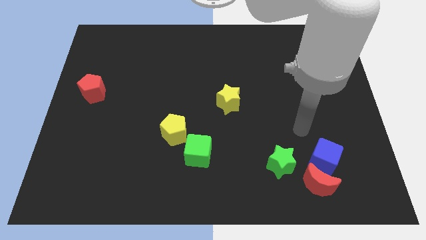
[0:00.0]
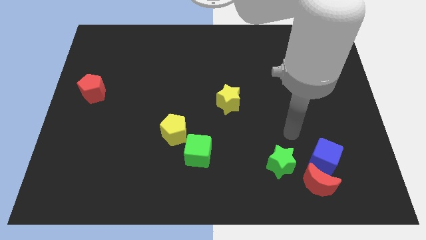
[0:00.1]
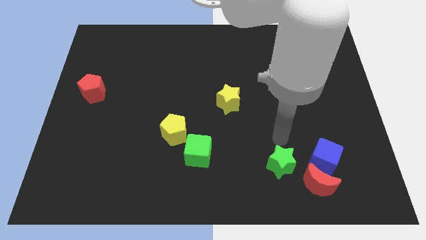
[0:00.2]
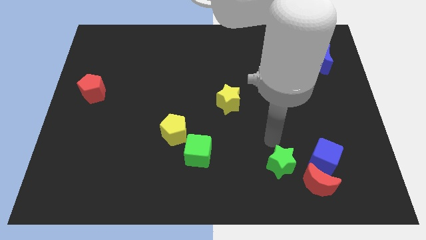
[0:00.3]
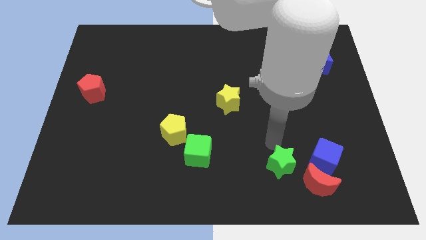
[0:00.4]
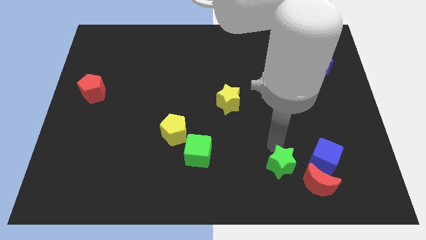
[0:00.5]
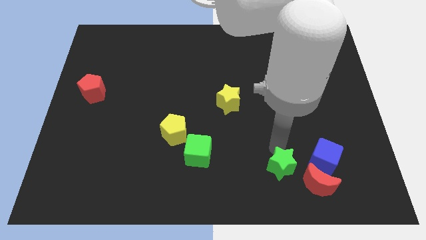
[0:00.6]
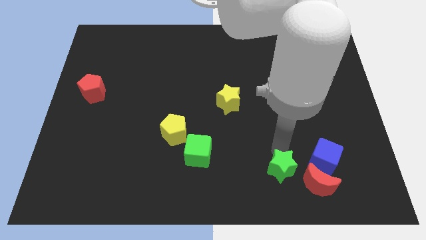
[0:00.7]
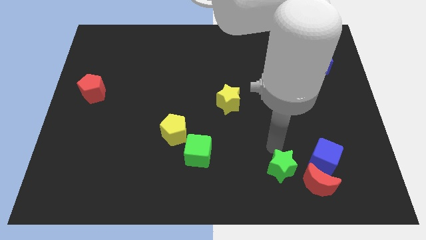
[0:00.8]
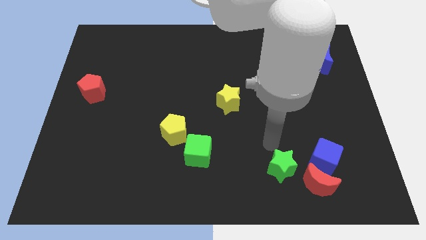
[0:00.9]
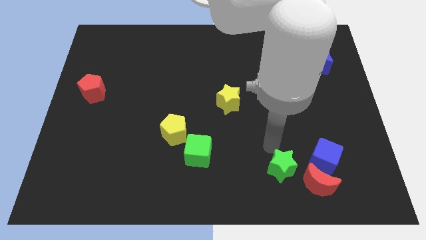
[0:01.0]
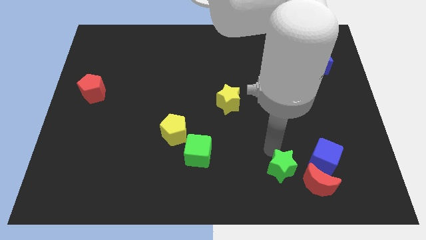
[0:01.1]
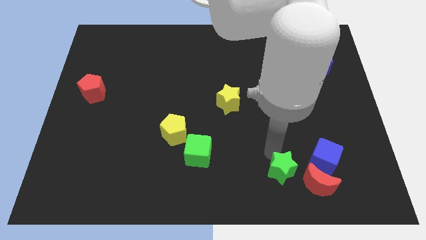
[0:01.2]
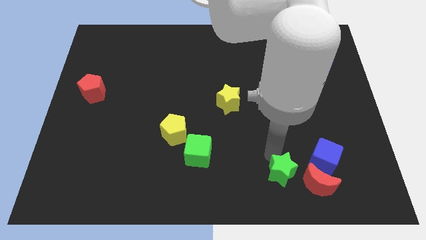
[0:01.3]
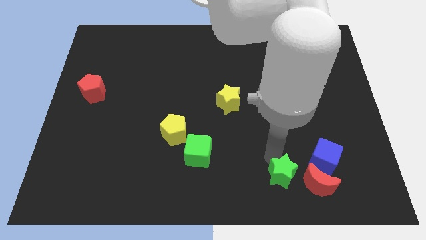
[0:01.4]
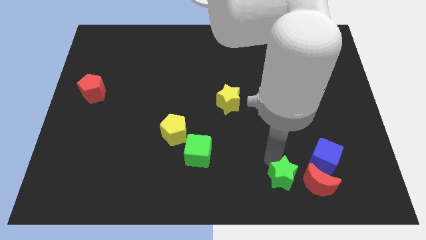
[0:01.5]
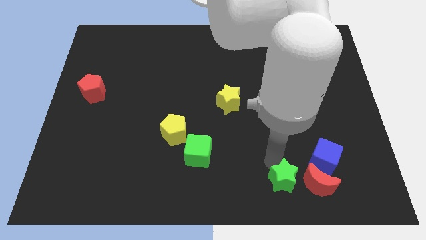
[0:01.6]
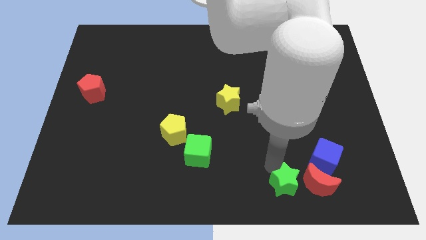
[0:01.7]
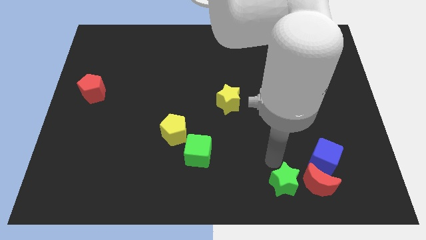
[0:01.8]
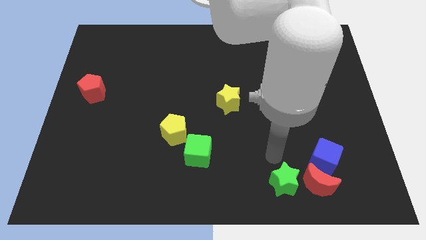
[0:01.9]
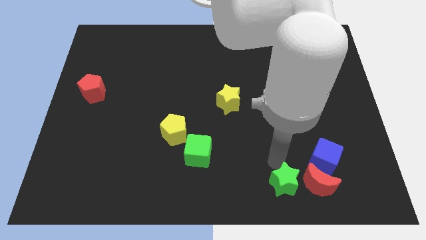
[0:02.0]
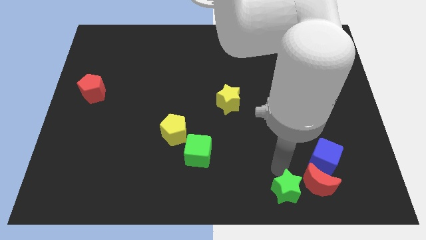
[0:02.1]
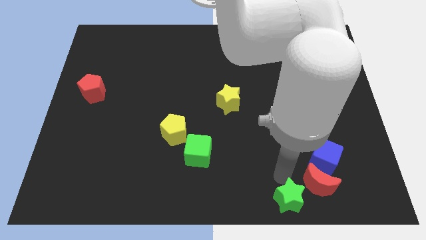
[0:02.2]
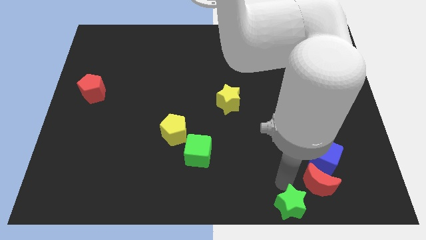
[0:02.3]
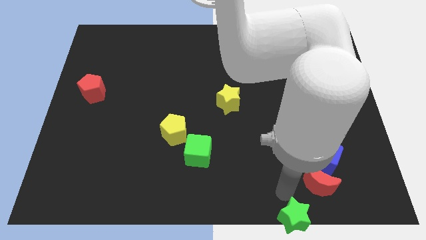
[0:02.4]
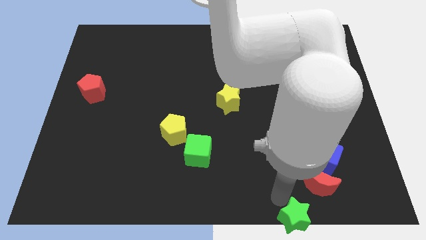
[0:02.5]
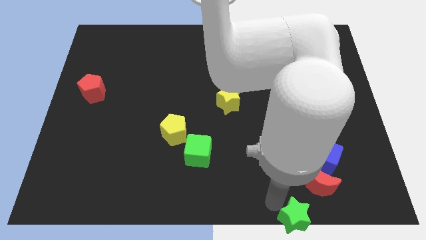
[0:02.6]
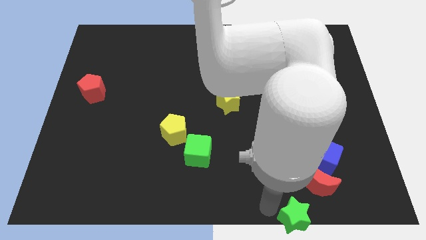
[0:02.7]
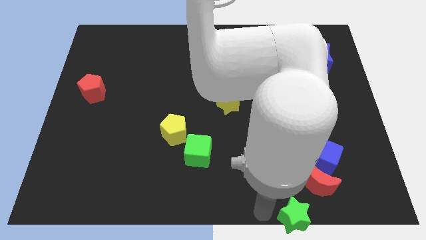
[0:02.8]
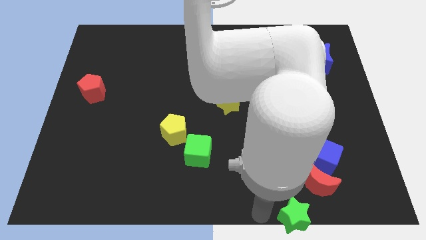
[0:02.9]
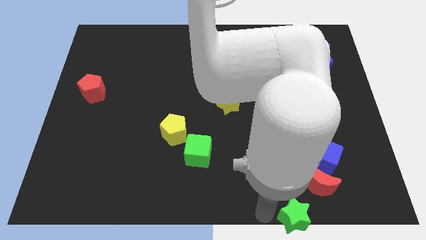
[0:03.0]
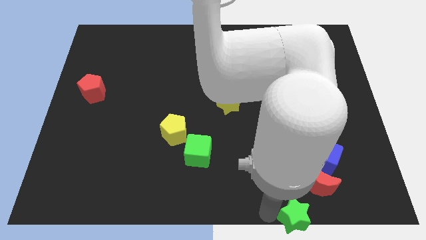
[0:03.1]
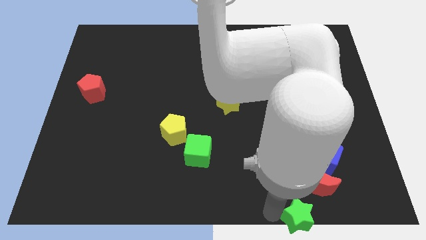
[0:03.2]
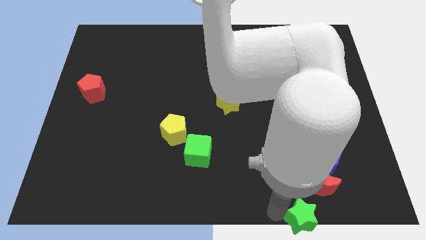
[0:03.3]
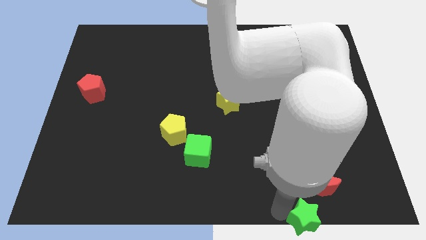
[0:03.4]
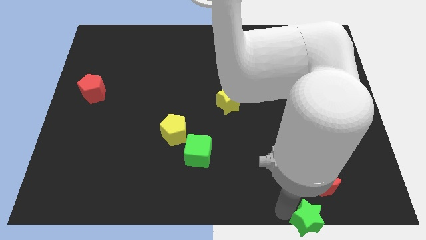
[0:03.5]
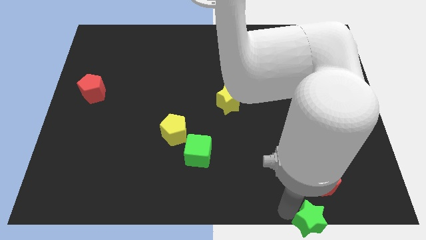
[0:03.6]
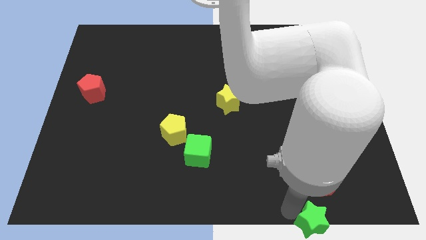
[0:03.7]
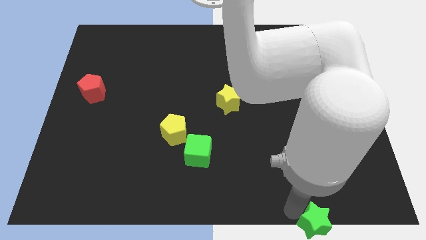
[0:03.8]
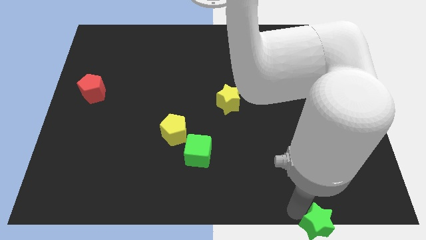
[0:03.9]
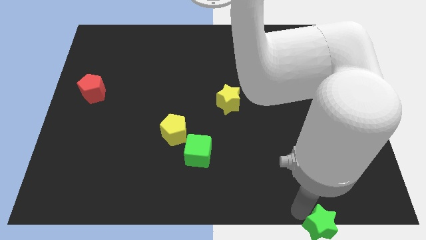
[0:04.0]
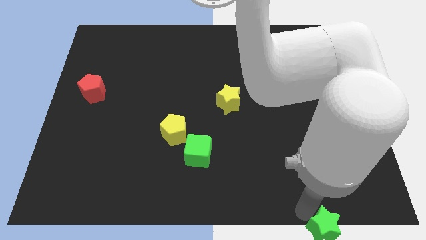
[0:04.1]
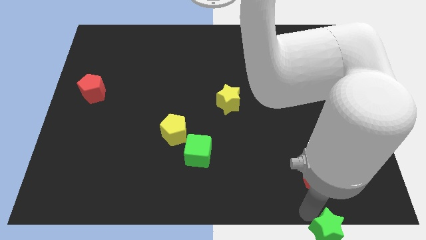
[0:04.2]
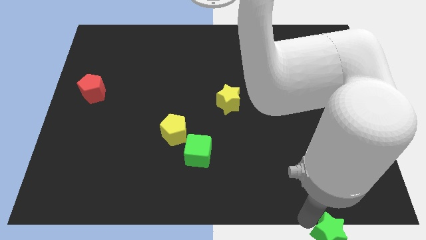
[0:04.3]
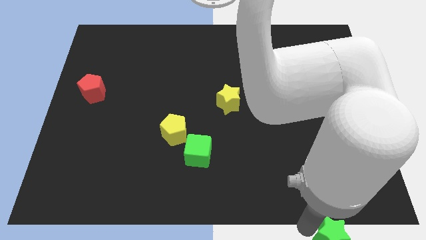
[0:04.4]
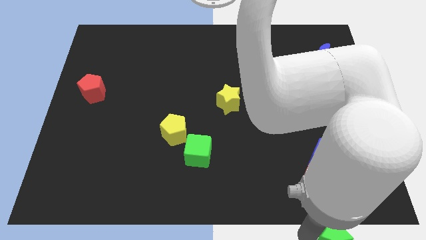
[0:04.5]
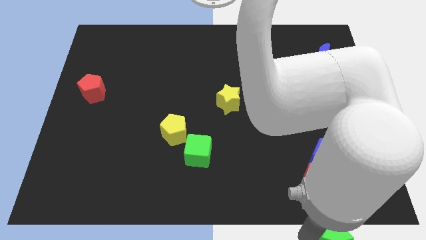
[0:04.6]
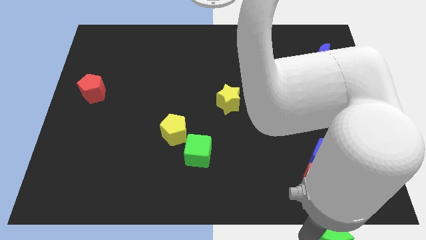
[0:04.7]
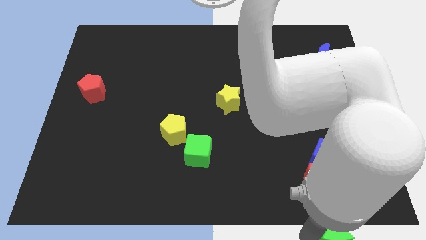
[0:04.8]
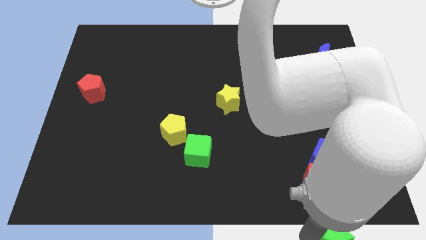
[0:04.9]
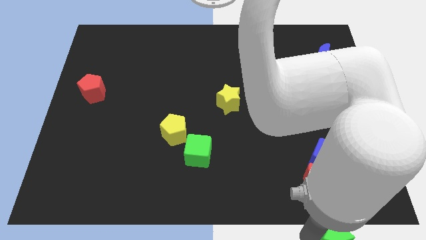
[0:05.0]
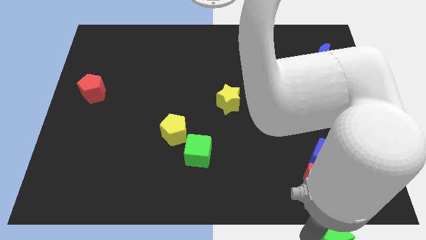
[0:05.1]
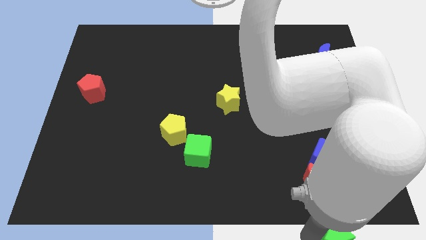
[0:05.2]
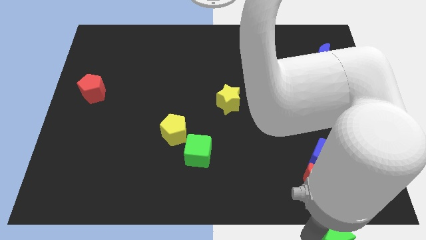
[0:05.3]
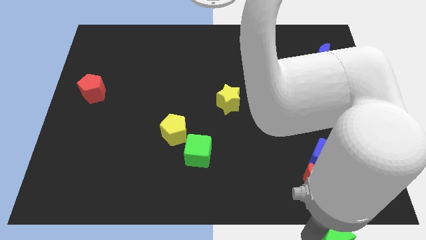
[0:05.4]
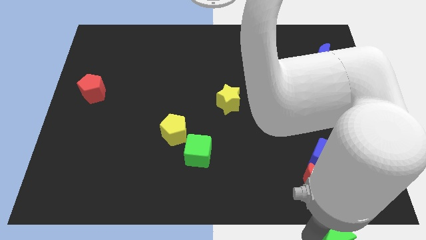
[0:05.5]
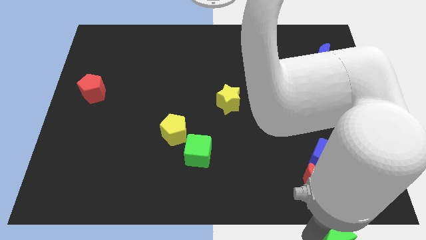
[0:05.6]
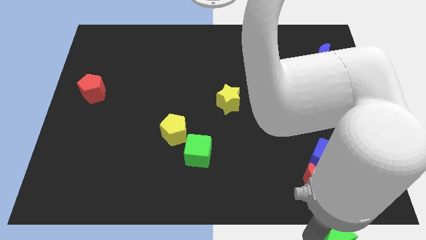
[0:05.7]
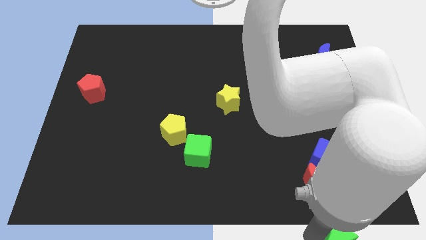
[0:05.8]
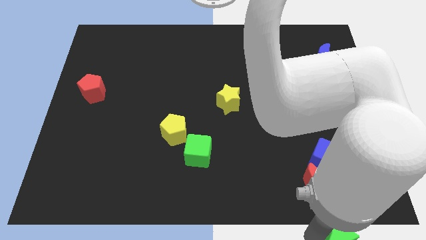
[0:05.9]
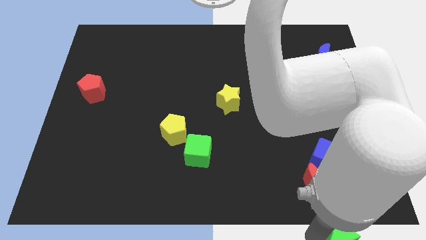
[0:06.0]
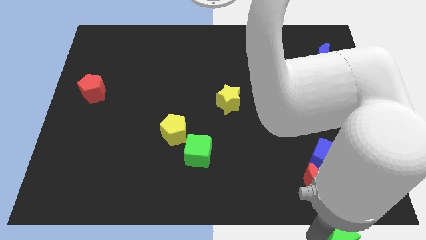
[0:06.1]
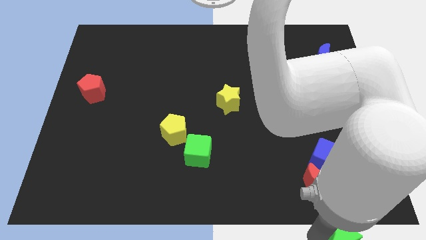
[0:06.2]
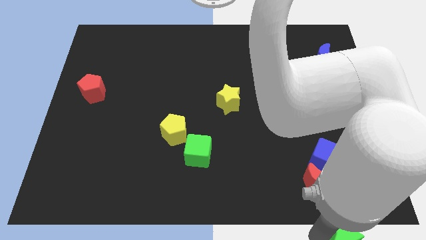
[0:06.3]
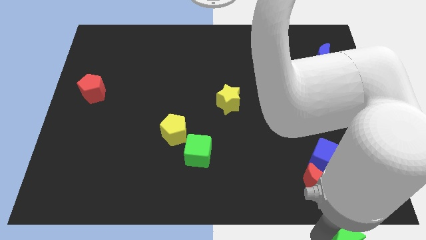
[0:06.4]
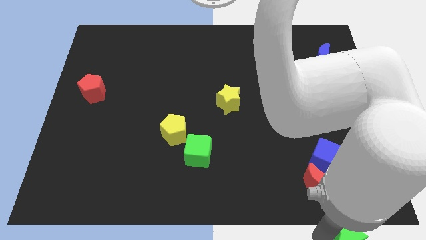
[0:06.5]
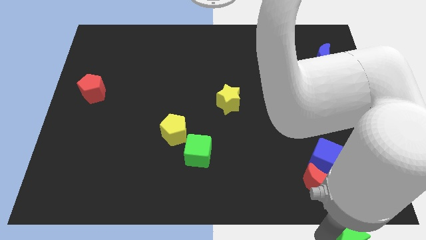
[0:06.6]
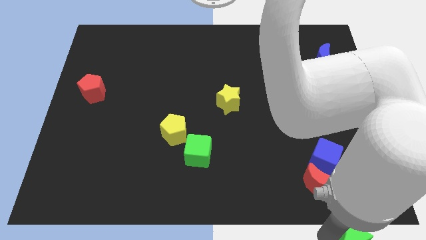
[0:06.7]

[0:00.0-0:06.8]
put the green star to the lower right corner

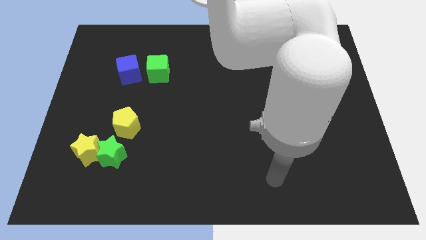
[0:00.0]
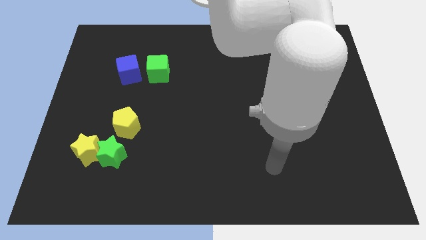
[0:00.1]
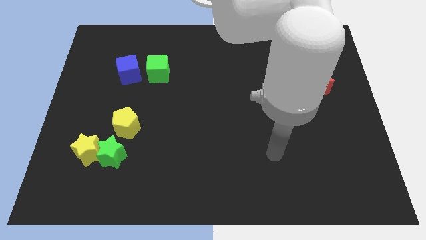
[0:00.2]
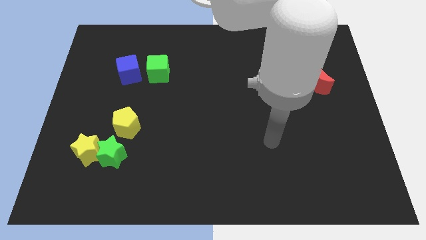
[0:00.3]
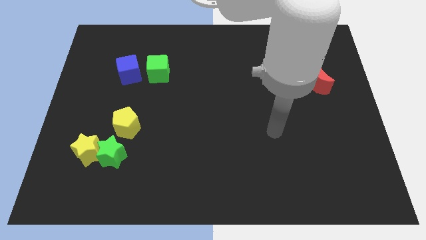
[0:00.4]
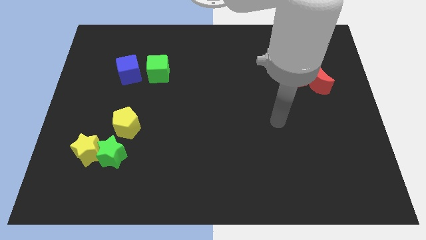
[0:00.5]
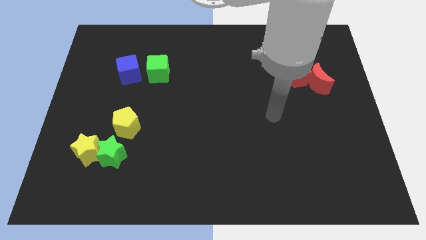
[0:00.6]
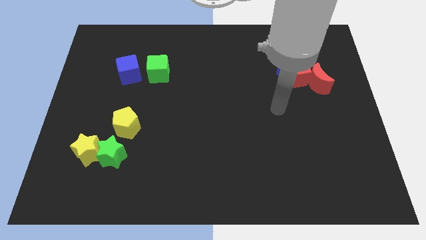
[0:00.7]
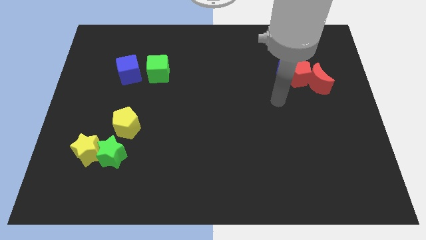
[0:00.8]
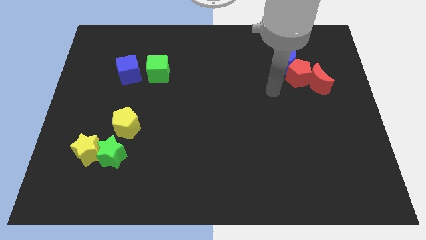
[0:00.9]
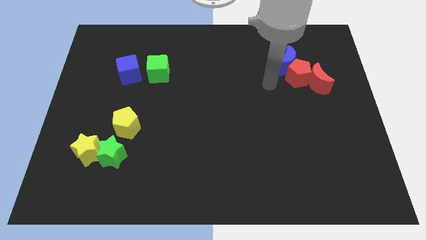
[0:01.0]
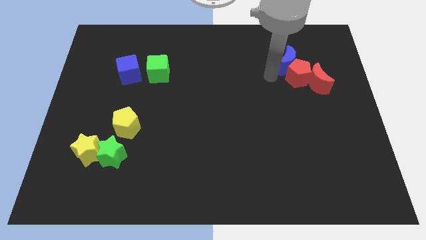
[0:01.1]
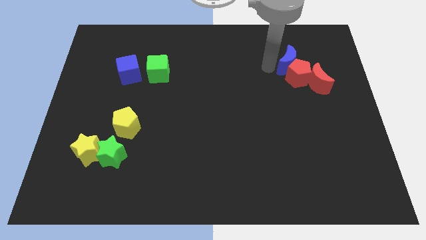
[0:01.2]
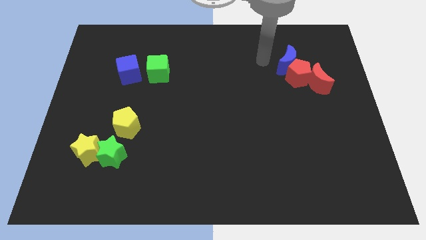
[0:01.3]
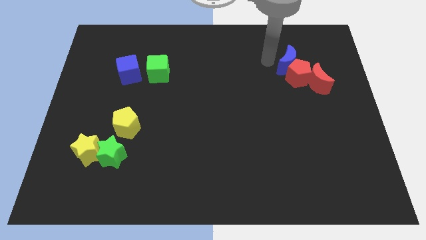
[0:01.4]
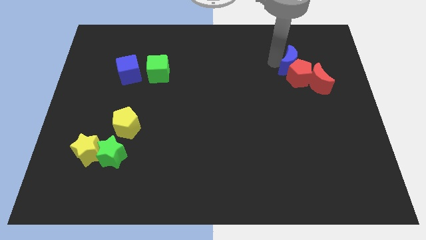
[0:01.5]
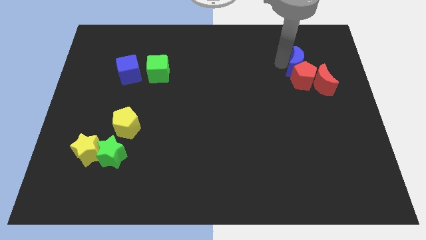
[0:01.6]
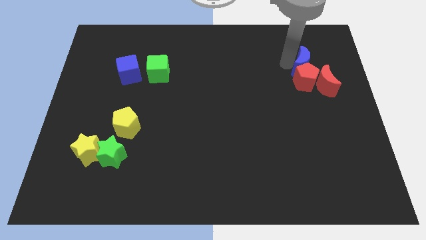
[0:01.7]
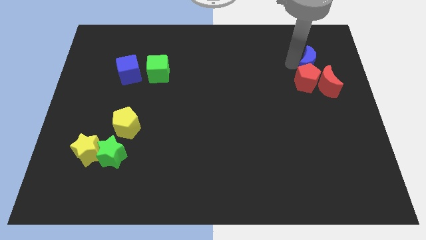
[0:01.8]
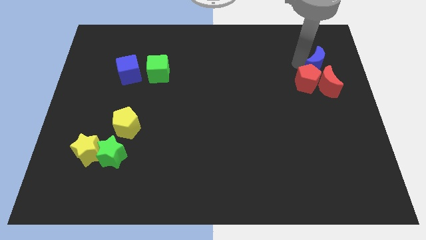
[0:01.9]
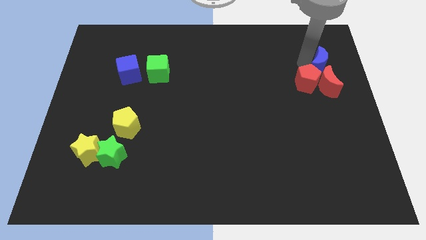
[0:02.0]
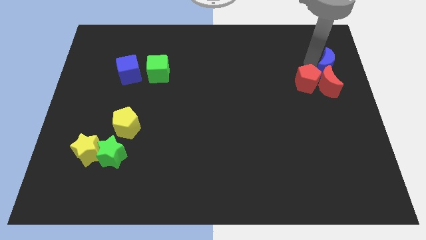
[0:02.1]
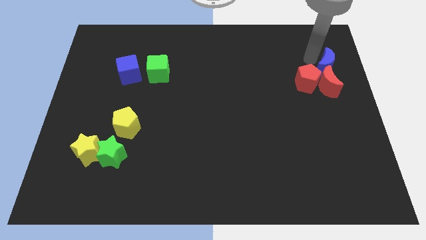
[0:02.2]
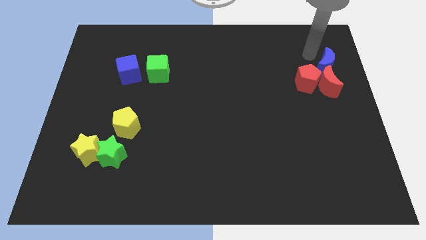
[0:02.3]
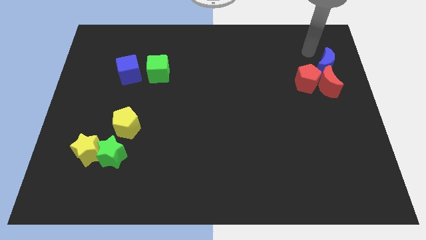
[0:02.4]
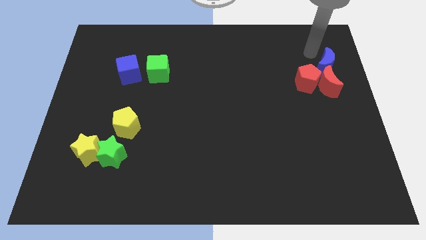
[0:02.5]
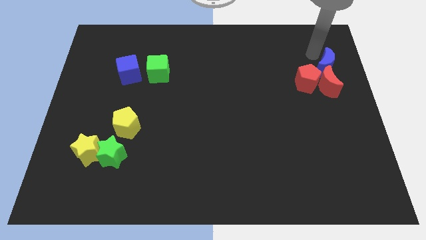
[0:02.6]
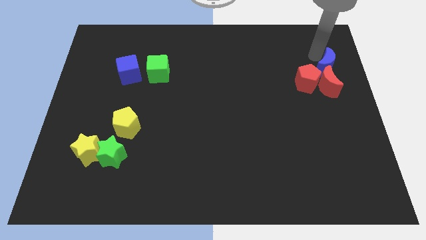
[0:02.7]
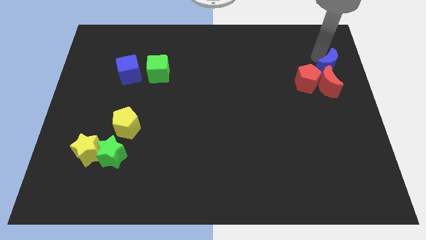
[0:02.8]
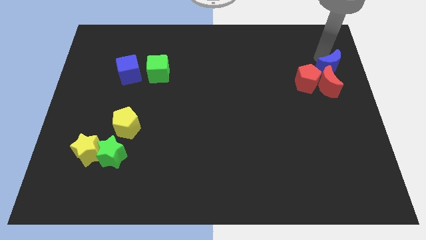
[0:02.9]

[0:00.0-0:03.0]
put the blue moon to the right side of the board
